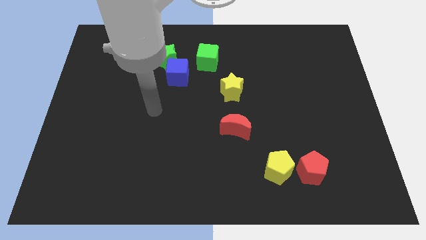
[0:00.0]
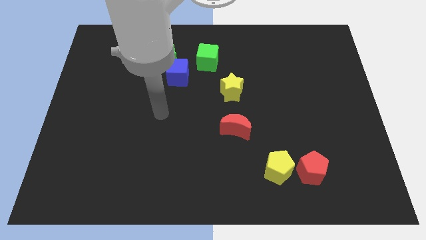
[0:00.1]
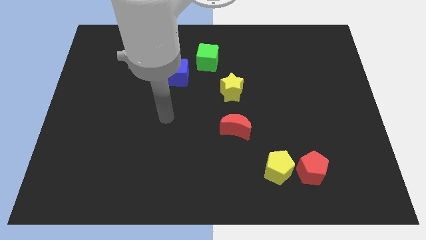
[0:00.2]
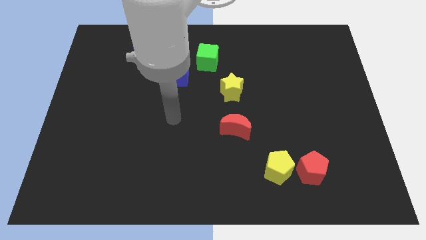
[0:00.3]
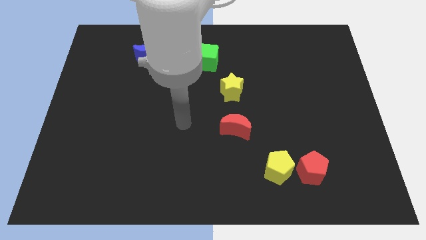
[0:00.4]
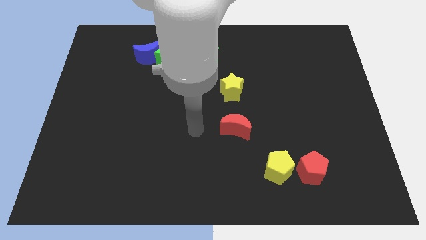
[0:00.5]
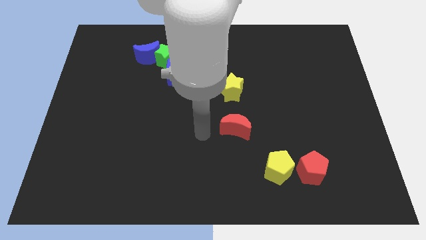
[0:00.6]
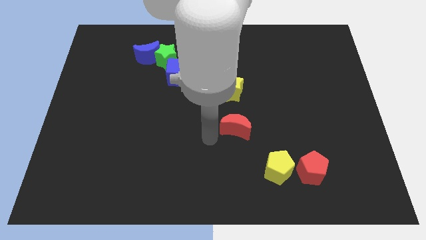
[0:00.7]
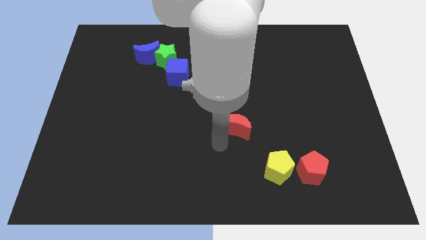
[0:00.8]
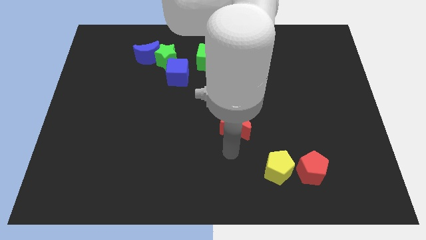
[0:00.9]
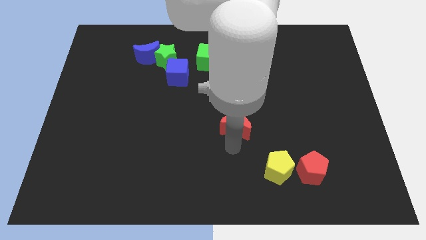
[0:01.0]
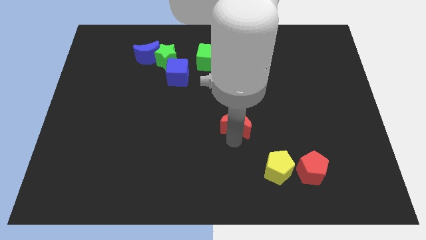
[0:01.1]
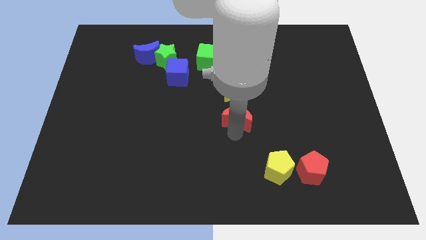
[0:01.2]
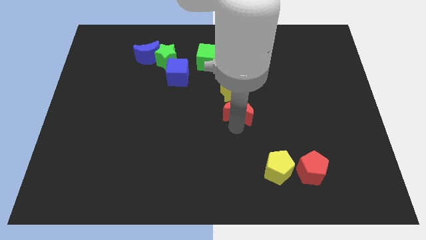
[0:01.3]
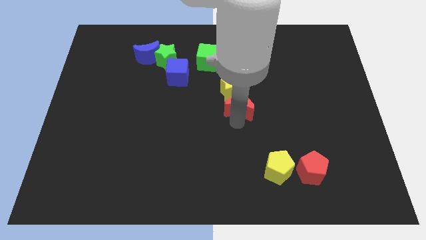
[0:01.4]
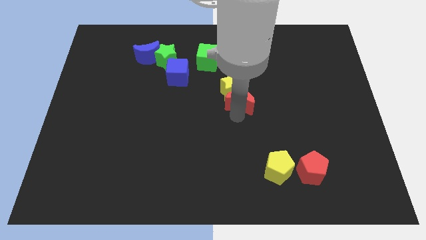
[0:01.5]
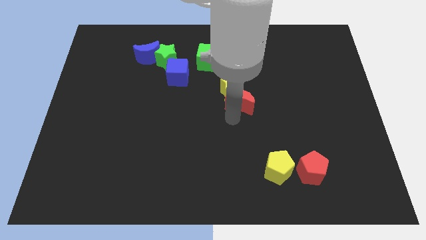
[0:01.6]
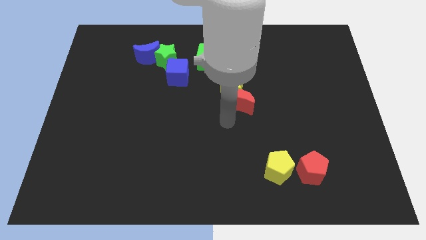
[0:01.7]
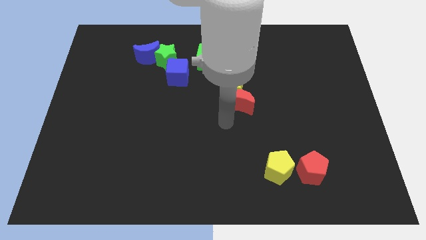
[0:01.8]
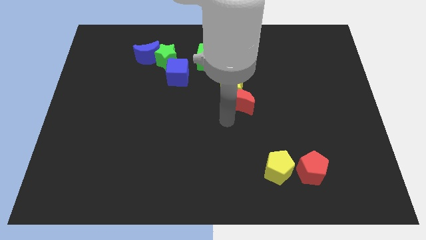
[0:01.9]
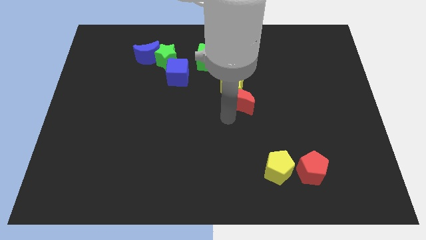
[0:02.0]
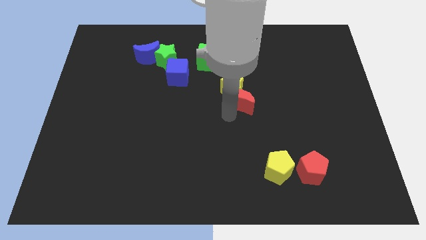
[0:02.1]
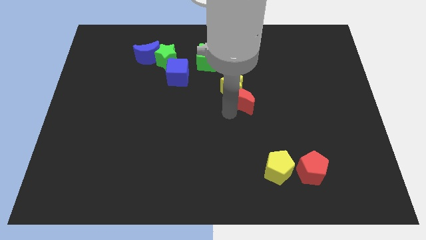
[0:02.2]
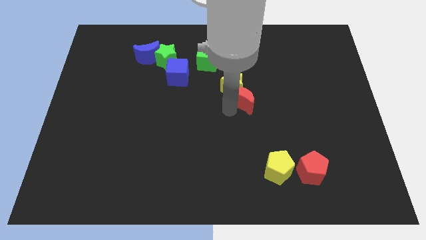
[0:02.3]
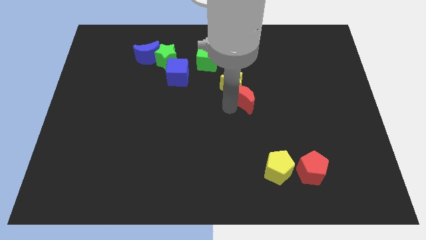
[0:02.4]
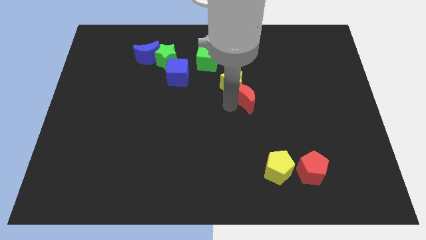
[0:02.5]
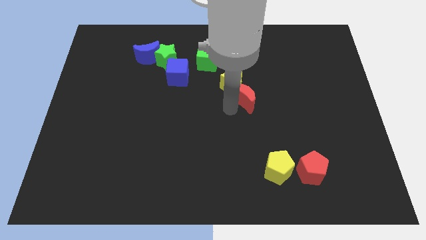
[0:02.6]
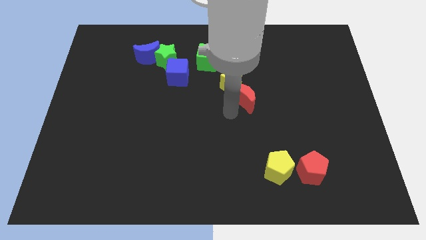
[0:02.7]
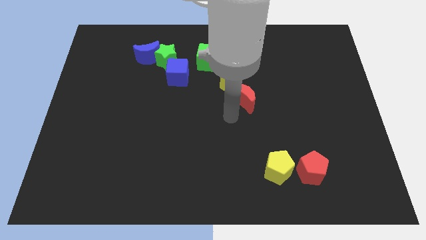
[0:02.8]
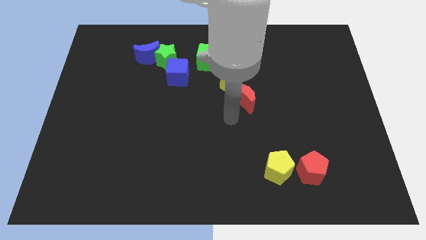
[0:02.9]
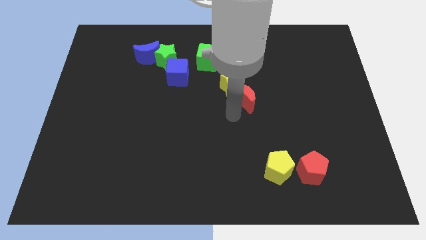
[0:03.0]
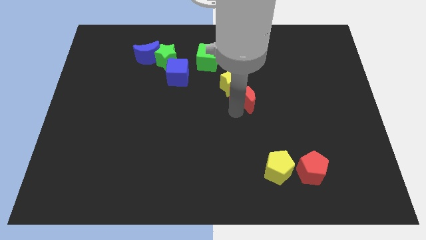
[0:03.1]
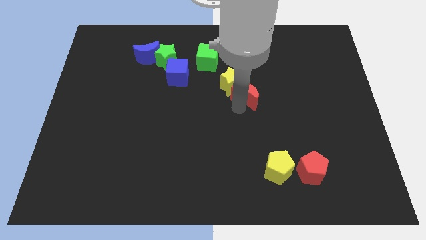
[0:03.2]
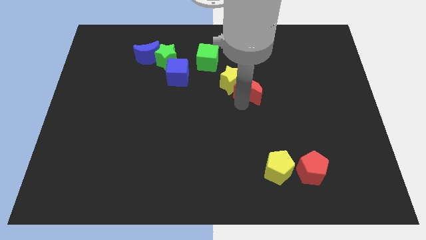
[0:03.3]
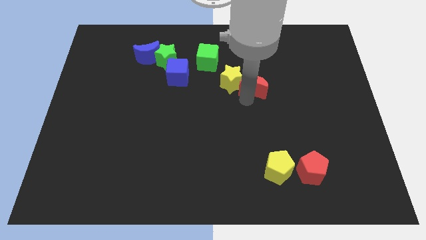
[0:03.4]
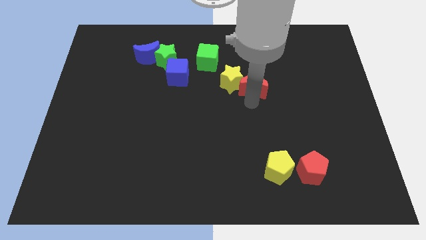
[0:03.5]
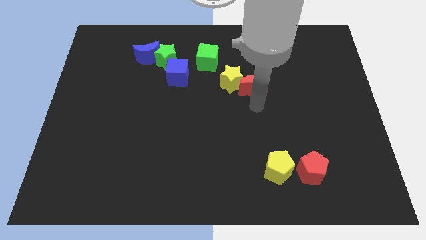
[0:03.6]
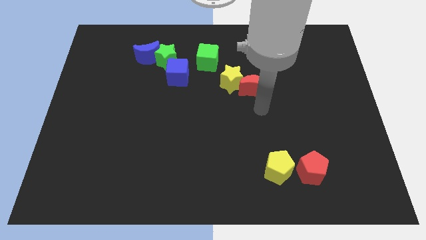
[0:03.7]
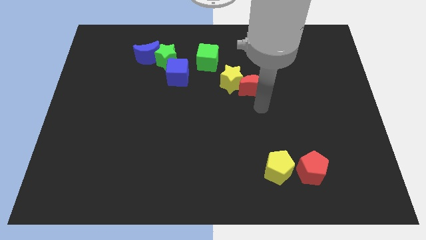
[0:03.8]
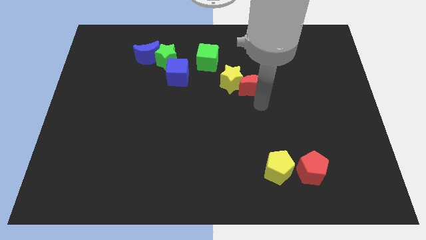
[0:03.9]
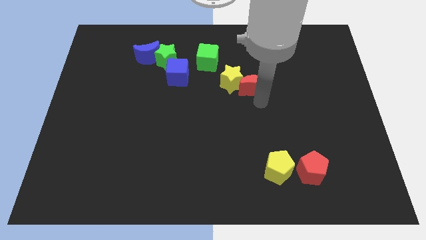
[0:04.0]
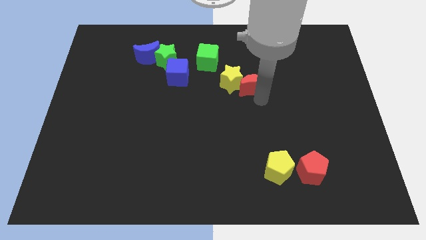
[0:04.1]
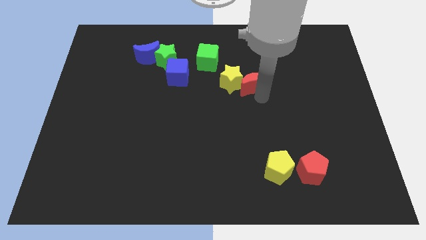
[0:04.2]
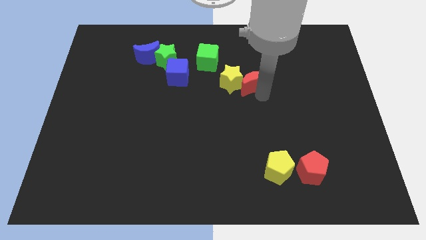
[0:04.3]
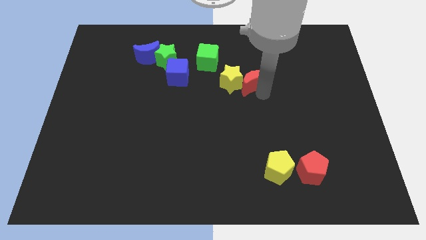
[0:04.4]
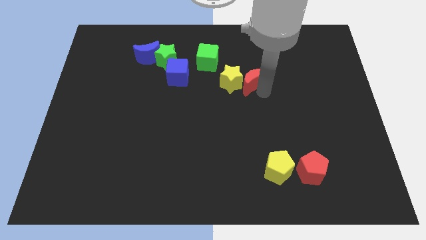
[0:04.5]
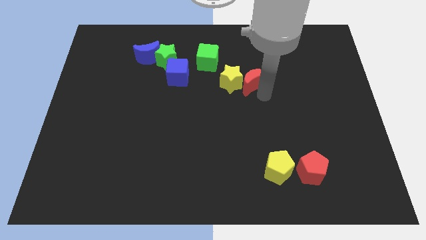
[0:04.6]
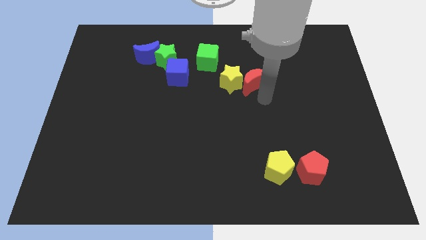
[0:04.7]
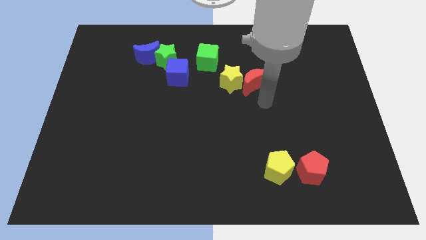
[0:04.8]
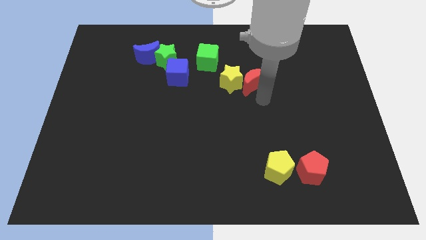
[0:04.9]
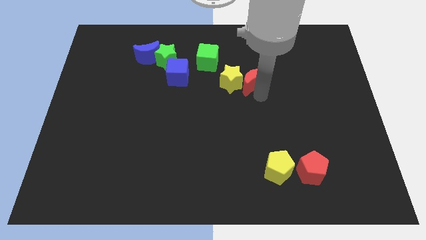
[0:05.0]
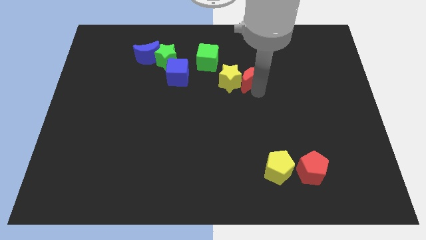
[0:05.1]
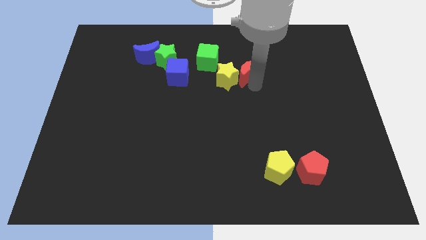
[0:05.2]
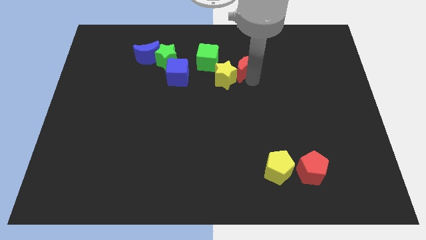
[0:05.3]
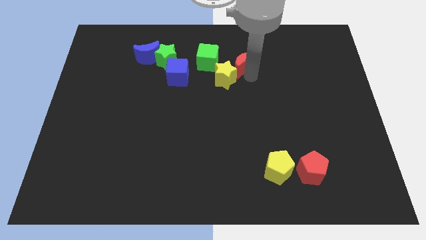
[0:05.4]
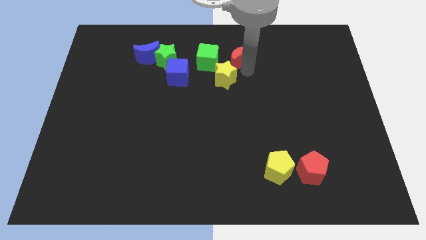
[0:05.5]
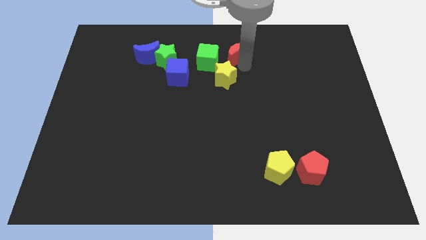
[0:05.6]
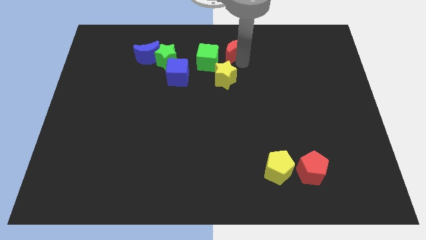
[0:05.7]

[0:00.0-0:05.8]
push the red moon to the towards your base
